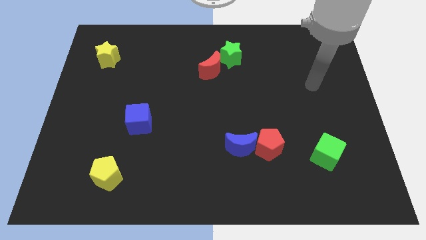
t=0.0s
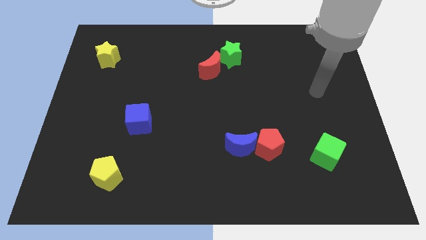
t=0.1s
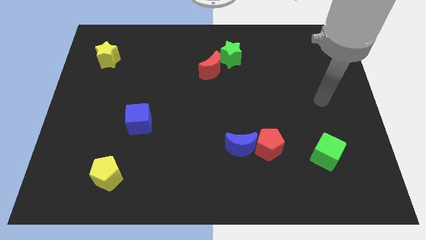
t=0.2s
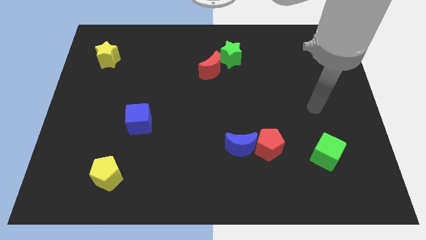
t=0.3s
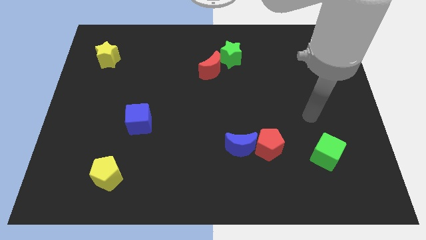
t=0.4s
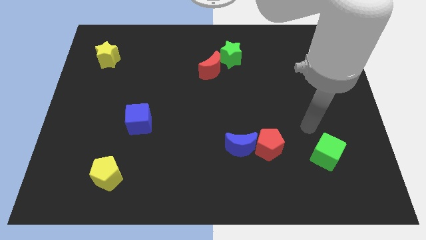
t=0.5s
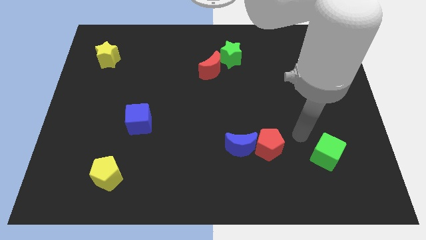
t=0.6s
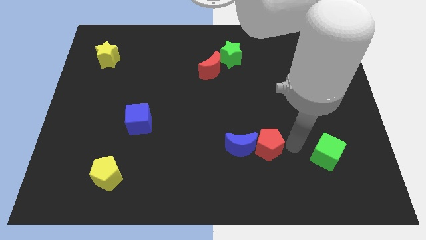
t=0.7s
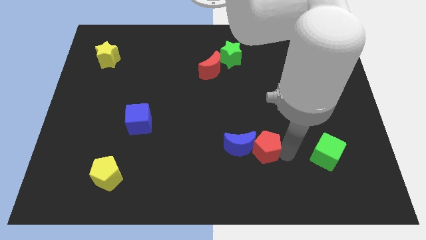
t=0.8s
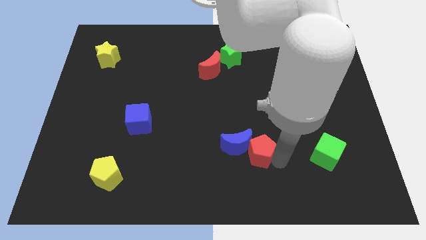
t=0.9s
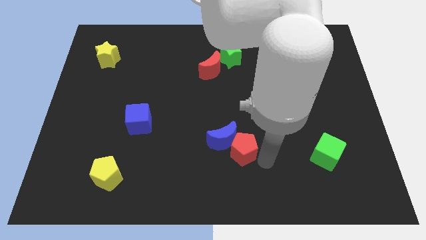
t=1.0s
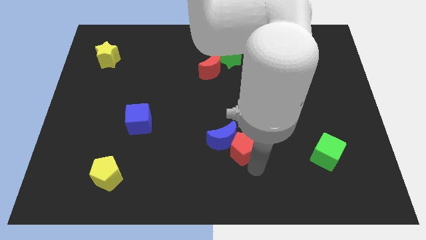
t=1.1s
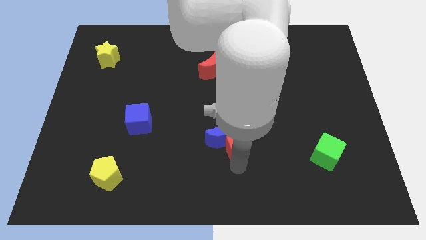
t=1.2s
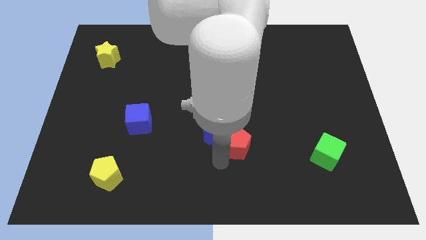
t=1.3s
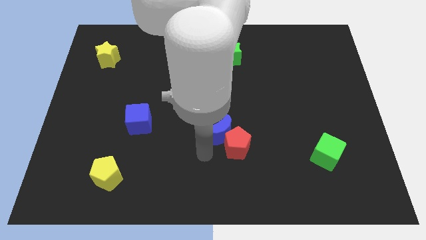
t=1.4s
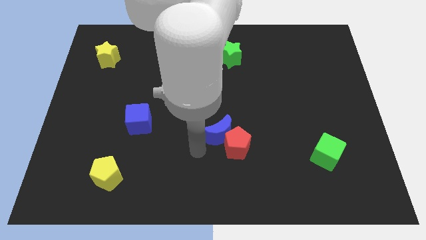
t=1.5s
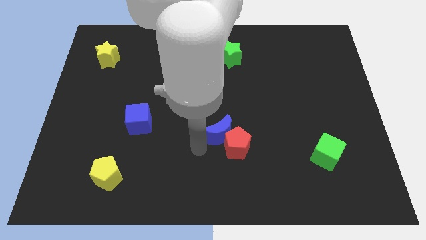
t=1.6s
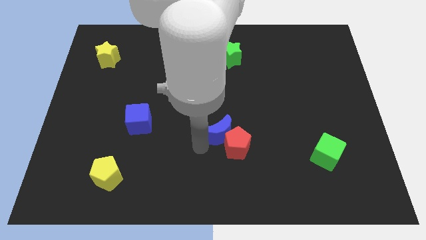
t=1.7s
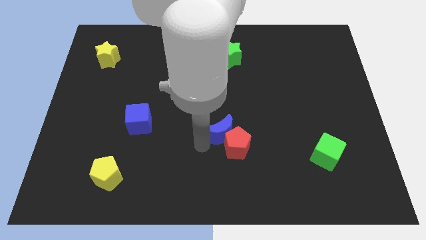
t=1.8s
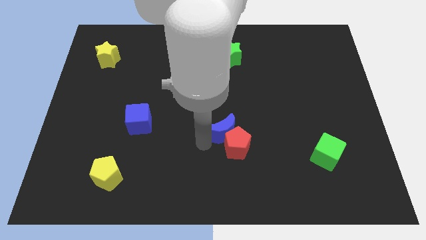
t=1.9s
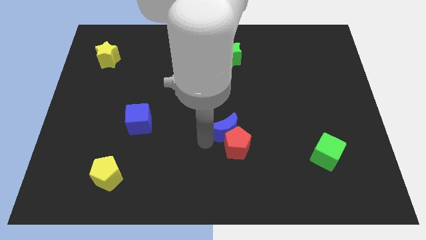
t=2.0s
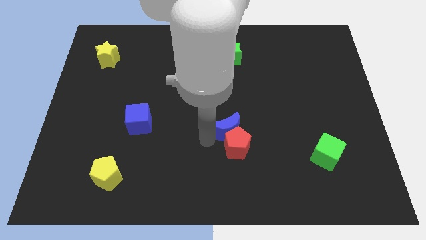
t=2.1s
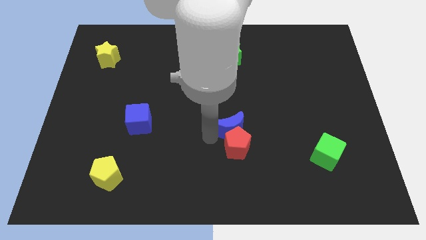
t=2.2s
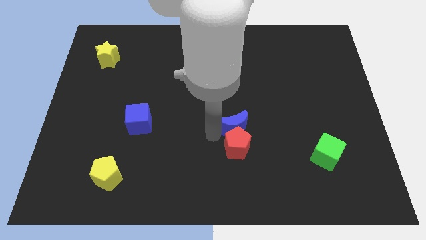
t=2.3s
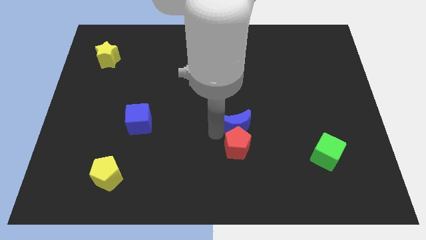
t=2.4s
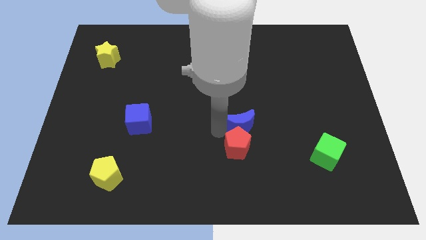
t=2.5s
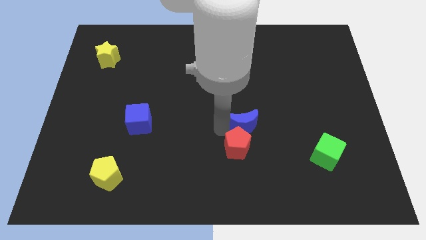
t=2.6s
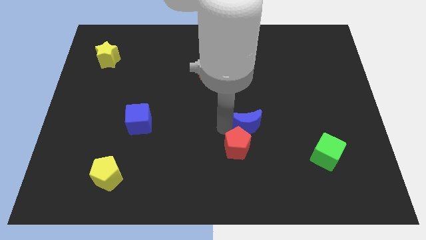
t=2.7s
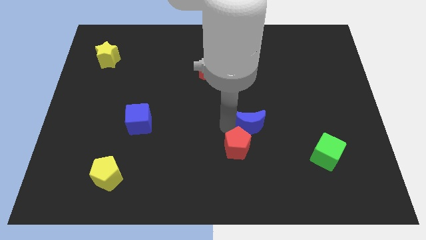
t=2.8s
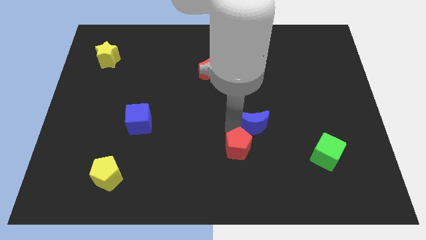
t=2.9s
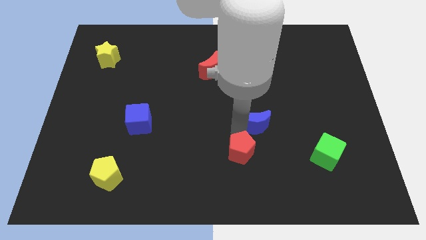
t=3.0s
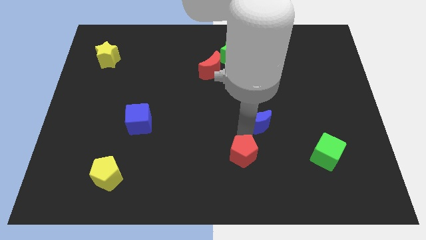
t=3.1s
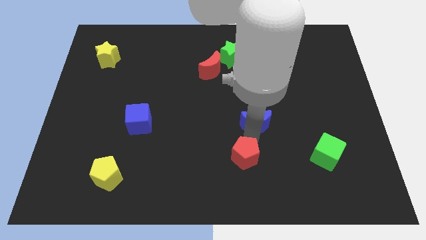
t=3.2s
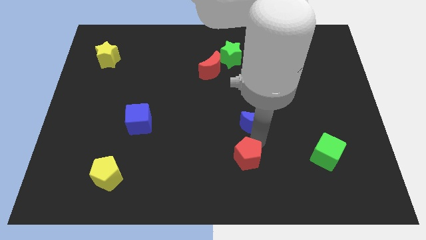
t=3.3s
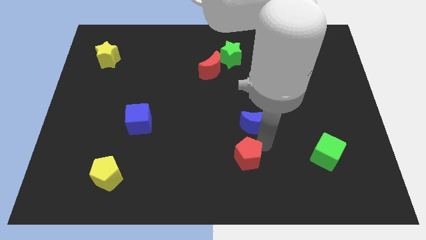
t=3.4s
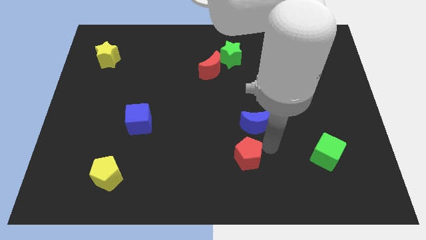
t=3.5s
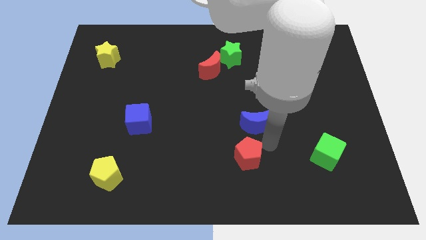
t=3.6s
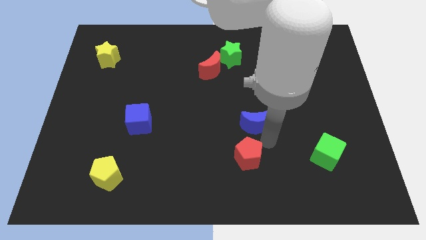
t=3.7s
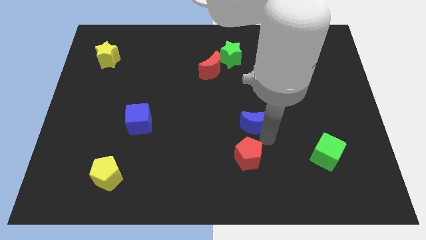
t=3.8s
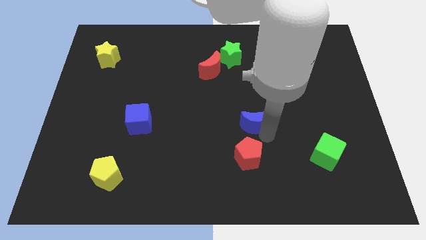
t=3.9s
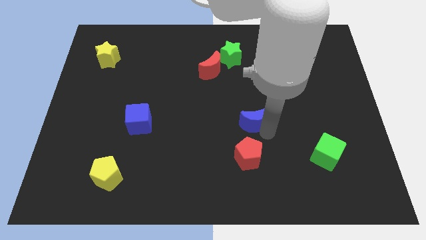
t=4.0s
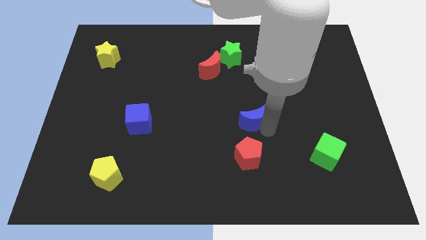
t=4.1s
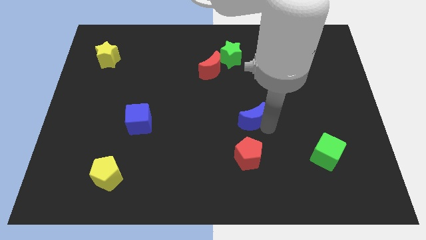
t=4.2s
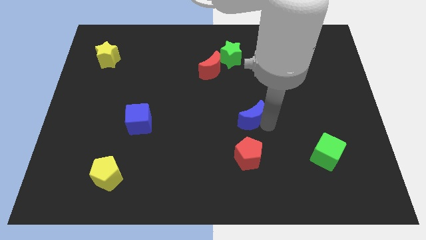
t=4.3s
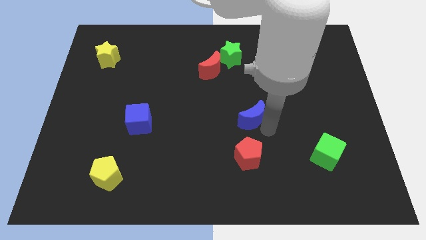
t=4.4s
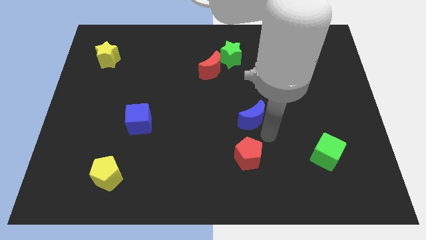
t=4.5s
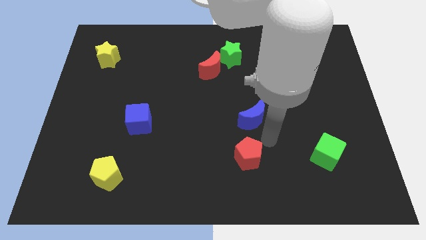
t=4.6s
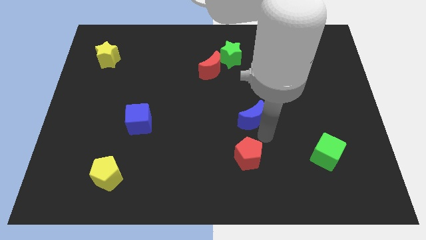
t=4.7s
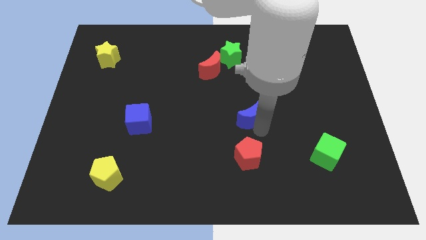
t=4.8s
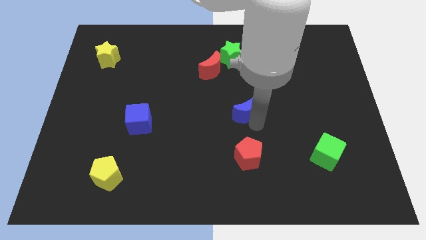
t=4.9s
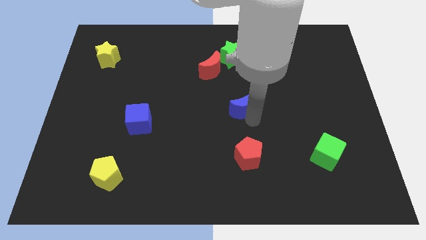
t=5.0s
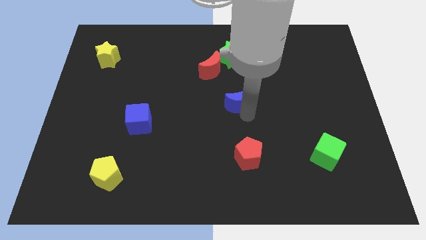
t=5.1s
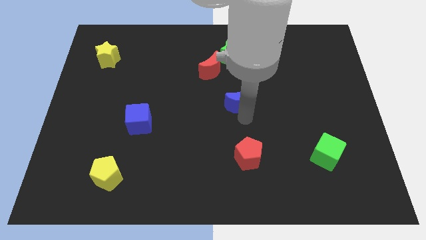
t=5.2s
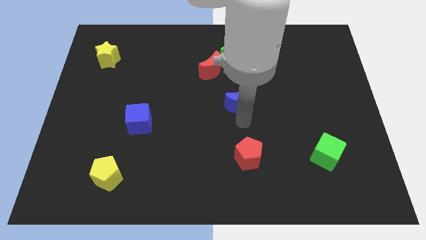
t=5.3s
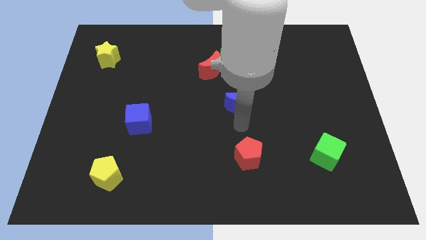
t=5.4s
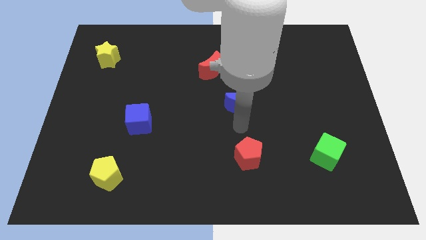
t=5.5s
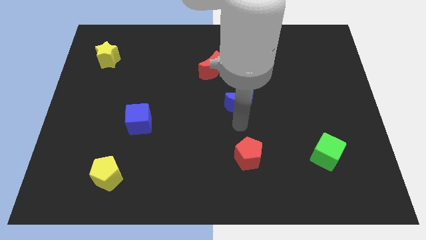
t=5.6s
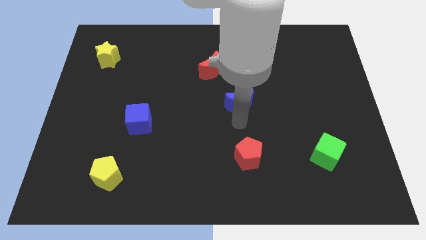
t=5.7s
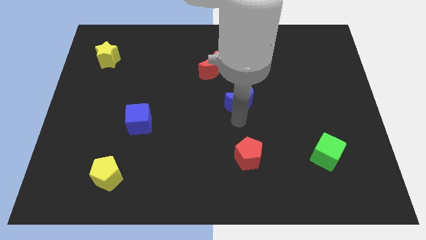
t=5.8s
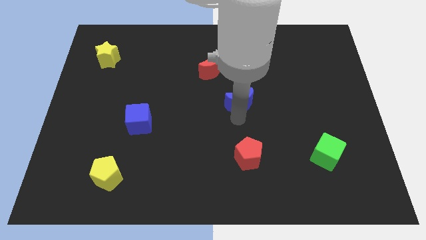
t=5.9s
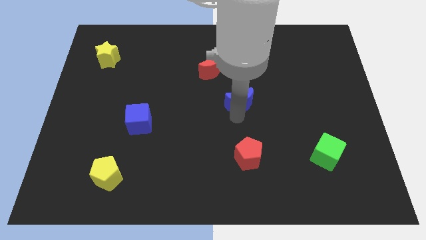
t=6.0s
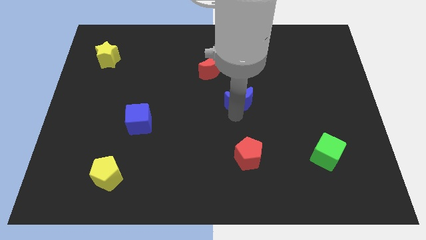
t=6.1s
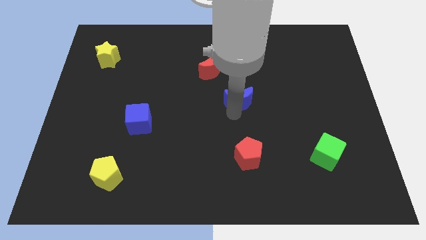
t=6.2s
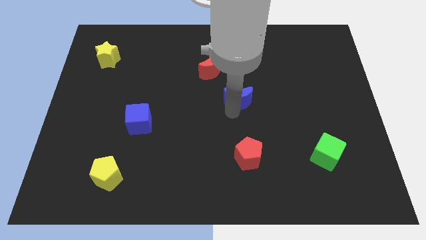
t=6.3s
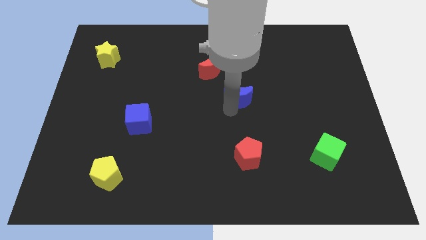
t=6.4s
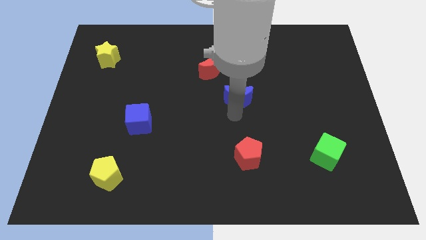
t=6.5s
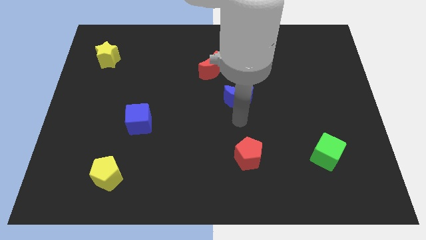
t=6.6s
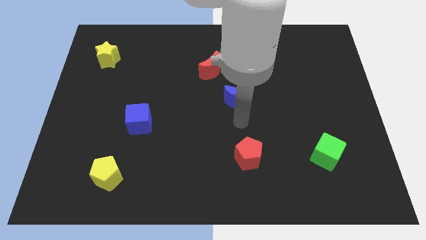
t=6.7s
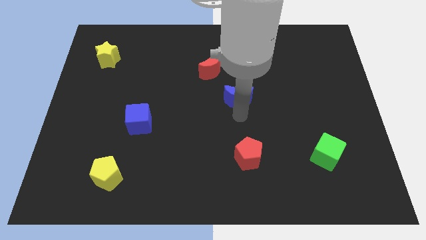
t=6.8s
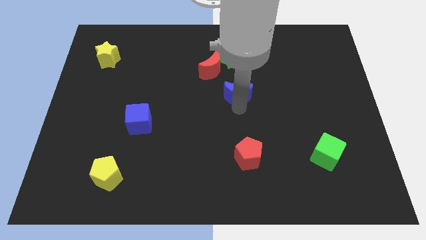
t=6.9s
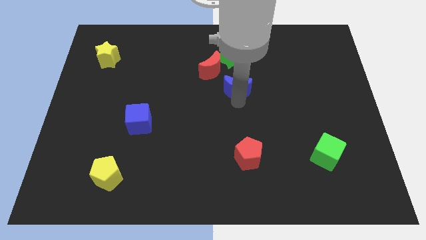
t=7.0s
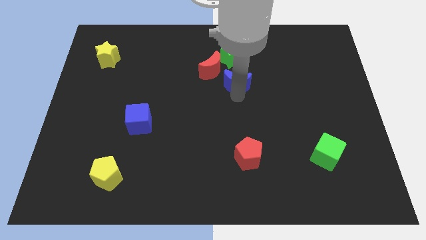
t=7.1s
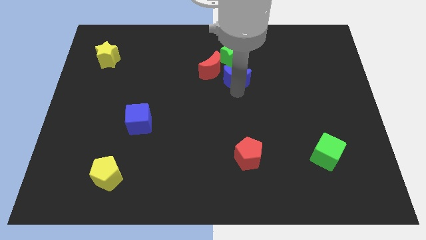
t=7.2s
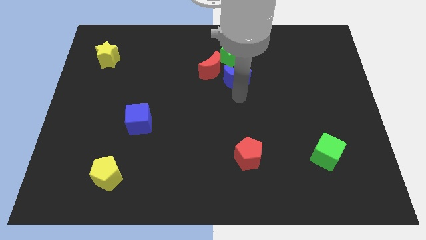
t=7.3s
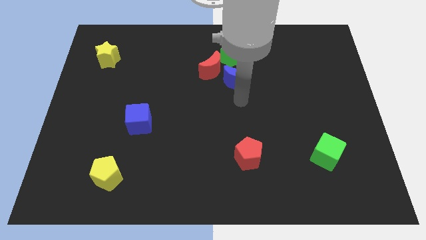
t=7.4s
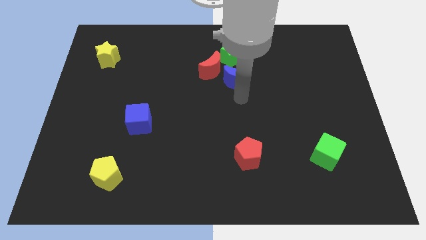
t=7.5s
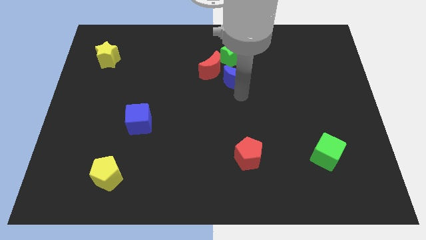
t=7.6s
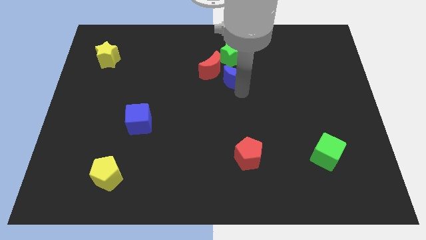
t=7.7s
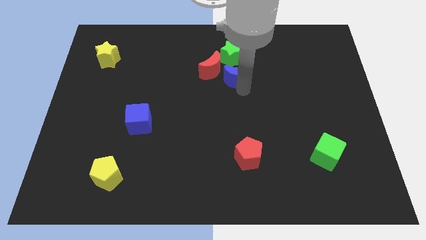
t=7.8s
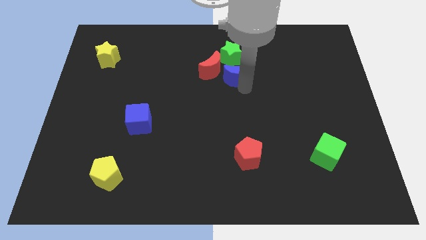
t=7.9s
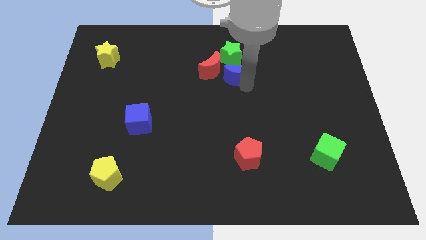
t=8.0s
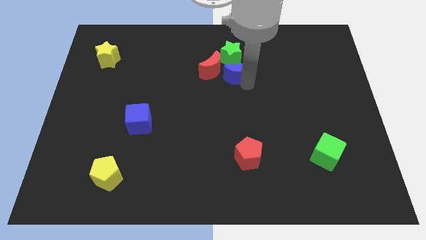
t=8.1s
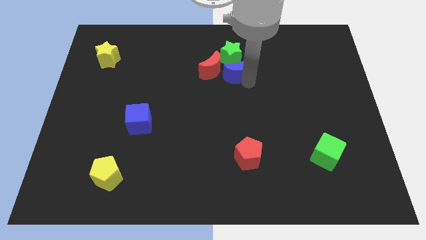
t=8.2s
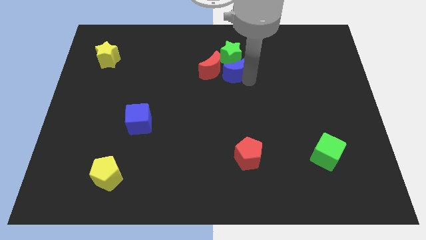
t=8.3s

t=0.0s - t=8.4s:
put the blue moon next to the green star

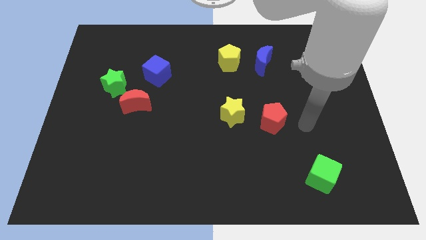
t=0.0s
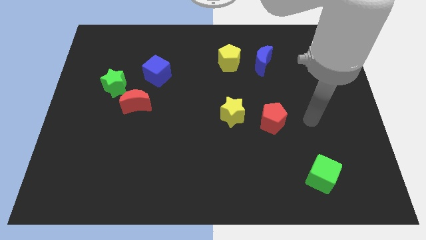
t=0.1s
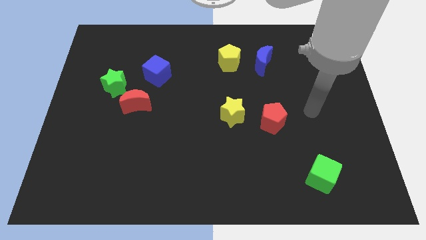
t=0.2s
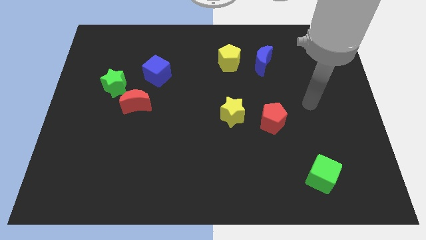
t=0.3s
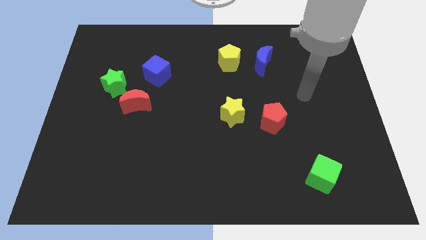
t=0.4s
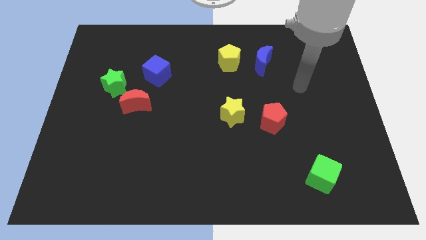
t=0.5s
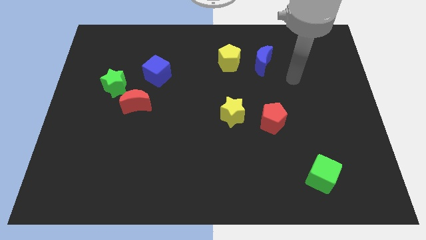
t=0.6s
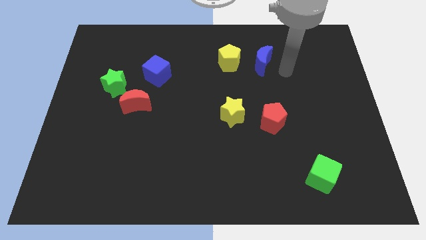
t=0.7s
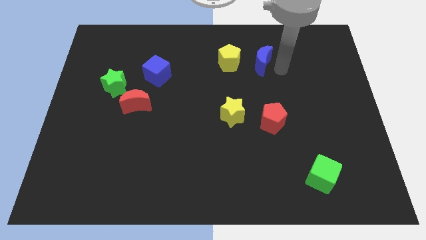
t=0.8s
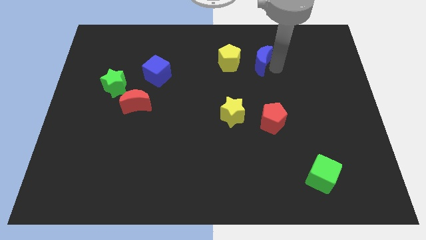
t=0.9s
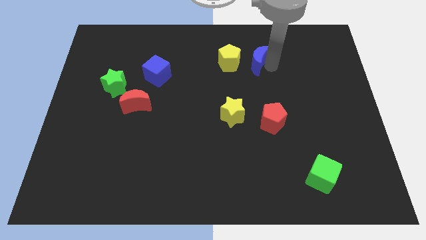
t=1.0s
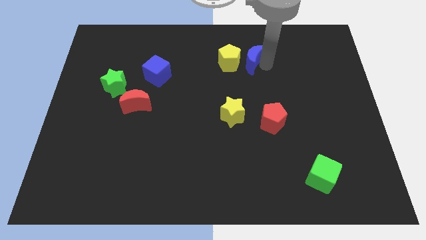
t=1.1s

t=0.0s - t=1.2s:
put the blue moon towards the yellow pentagon
